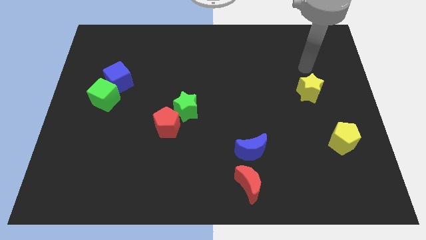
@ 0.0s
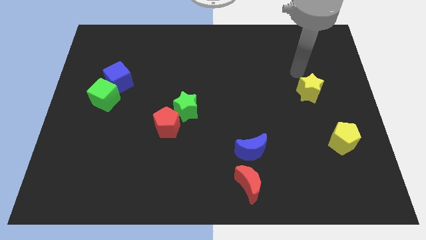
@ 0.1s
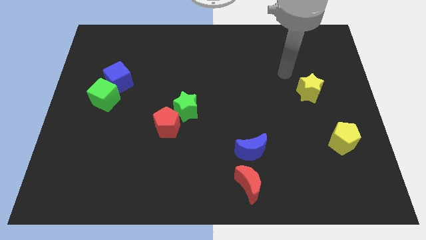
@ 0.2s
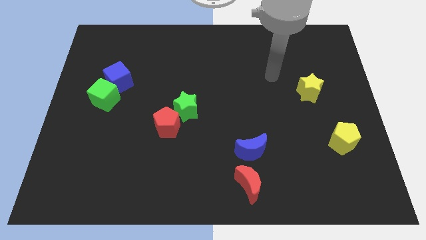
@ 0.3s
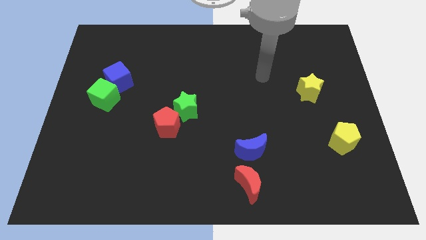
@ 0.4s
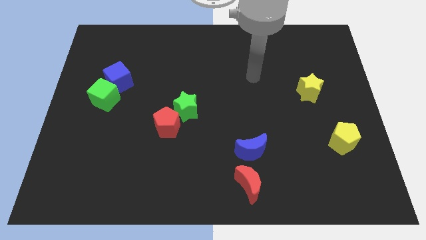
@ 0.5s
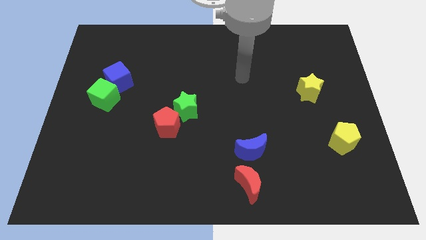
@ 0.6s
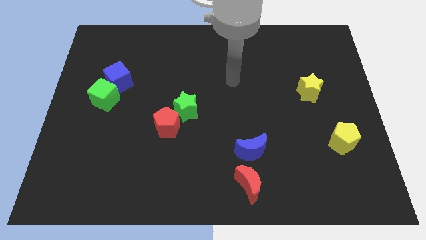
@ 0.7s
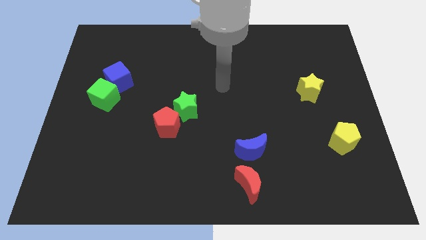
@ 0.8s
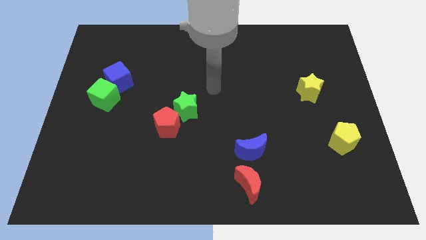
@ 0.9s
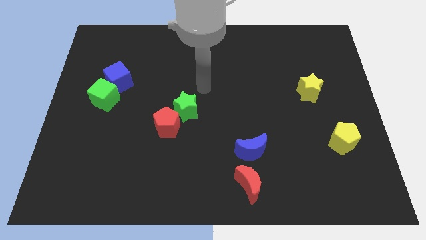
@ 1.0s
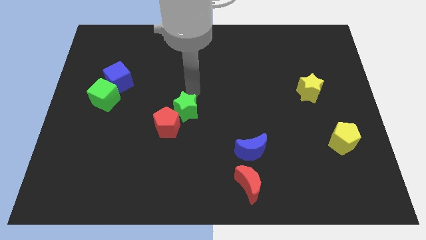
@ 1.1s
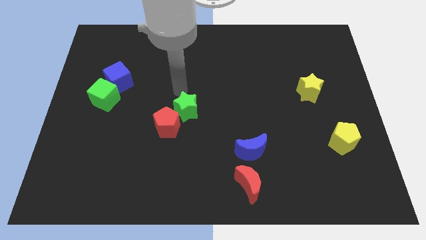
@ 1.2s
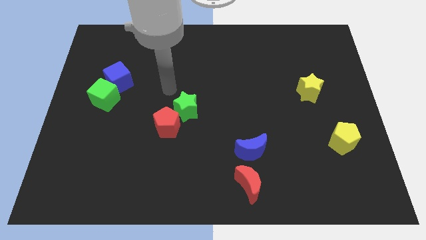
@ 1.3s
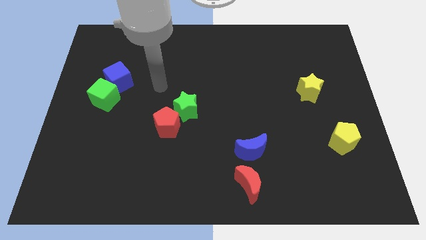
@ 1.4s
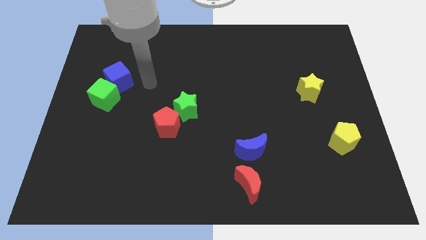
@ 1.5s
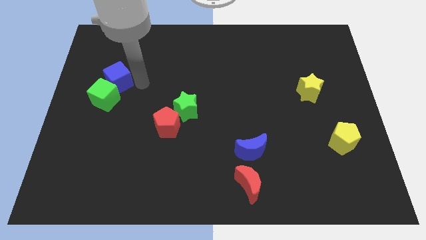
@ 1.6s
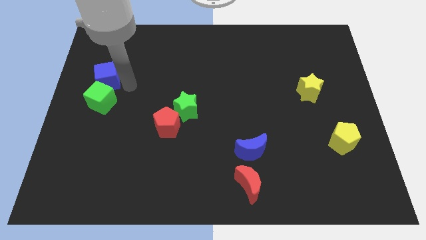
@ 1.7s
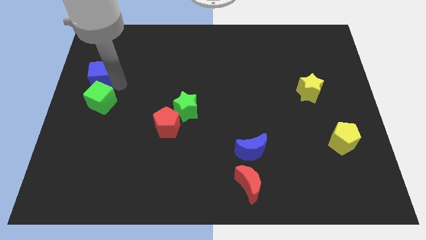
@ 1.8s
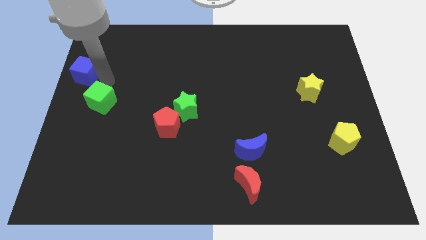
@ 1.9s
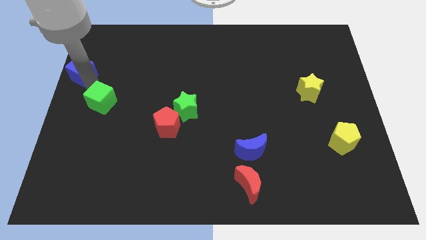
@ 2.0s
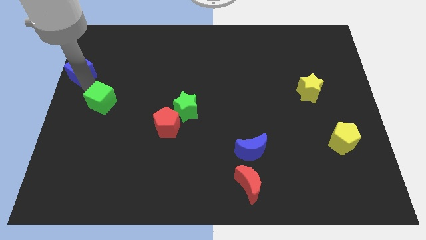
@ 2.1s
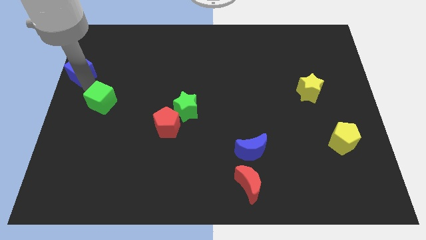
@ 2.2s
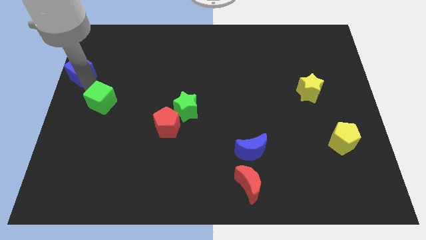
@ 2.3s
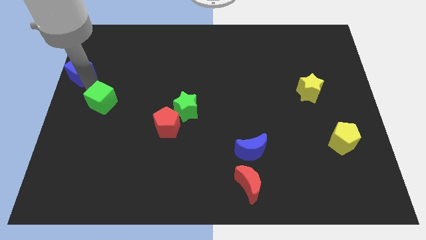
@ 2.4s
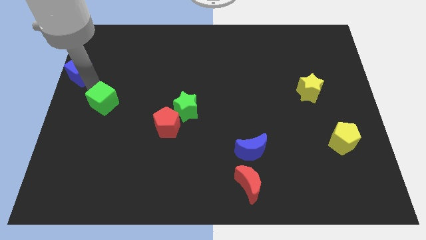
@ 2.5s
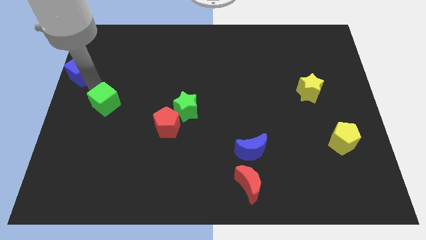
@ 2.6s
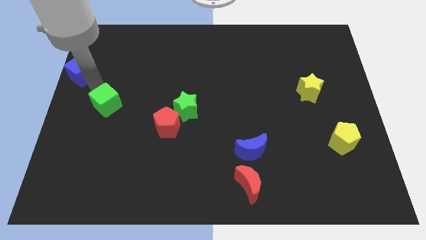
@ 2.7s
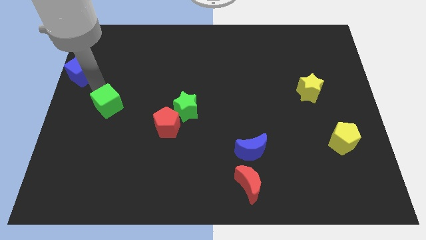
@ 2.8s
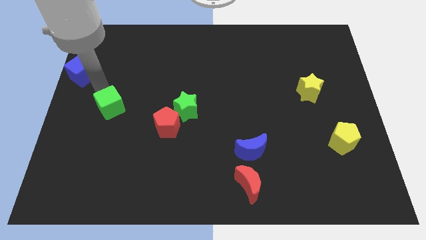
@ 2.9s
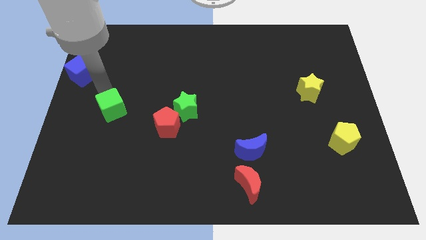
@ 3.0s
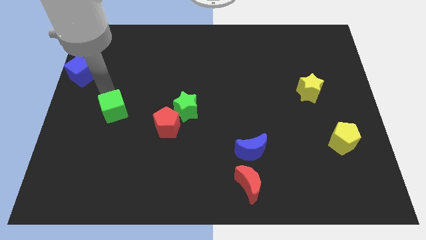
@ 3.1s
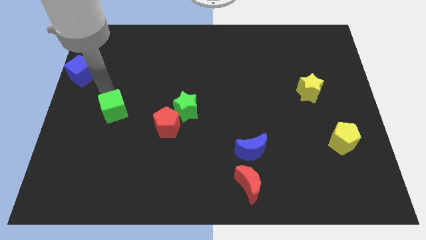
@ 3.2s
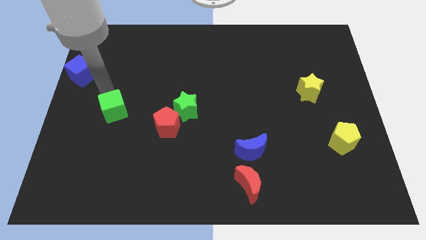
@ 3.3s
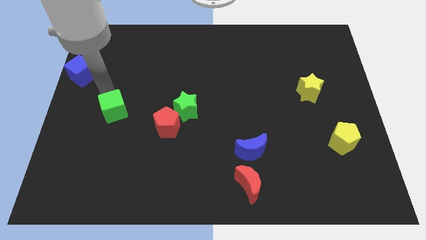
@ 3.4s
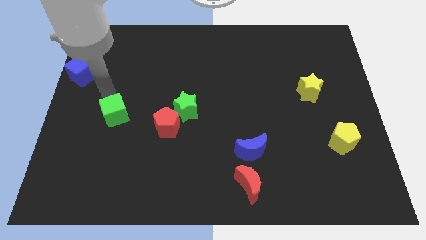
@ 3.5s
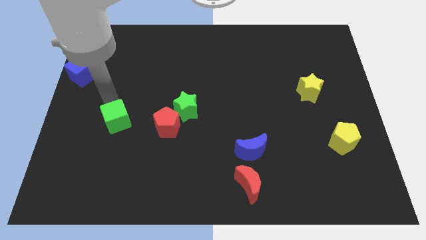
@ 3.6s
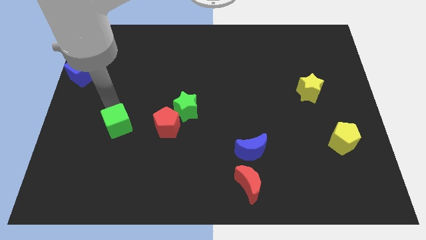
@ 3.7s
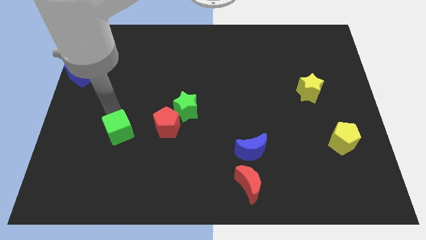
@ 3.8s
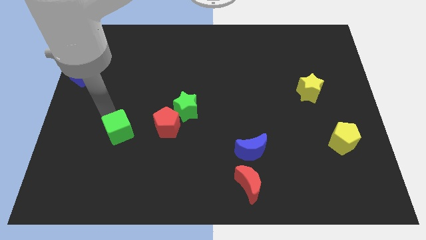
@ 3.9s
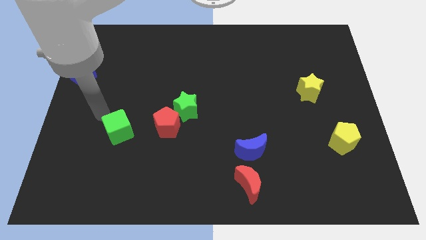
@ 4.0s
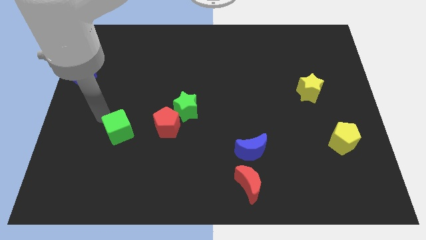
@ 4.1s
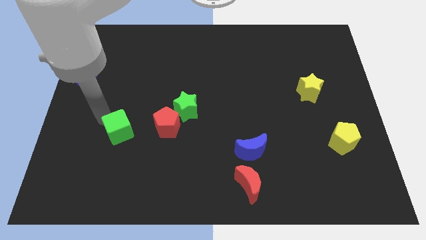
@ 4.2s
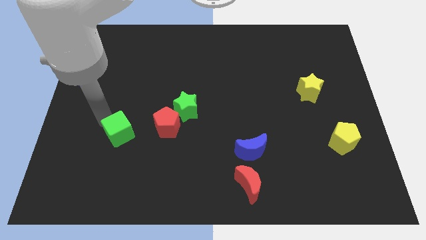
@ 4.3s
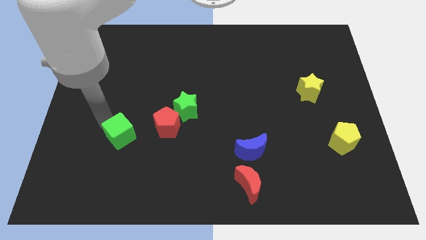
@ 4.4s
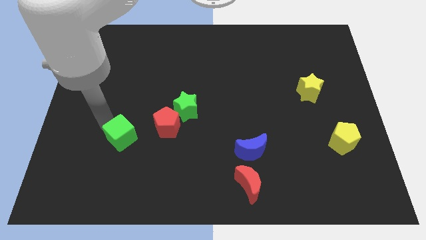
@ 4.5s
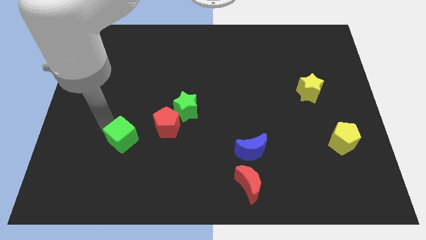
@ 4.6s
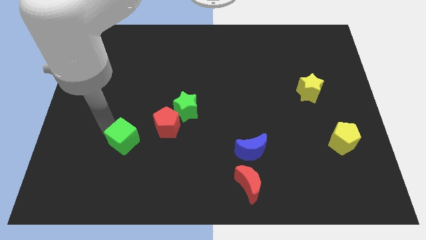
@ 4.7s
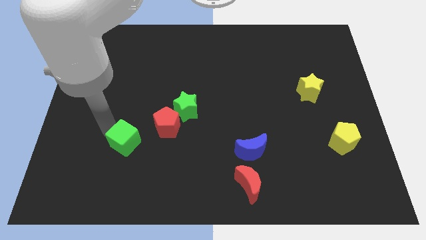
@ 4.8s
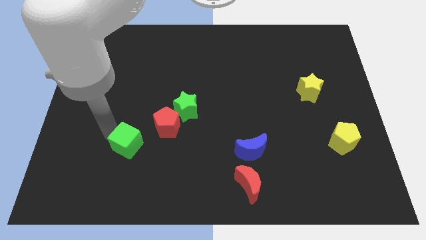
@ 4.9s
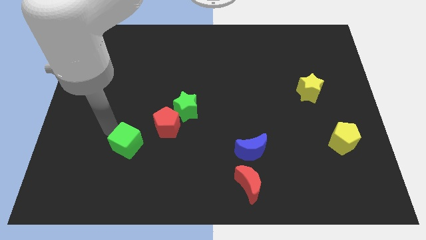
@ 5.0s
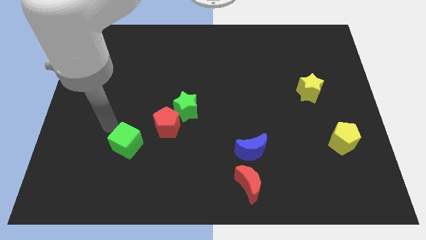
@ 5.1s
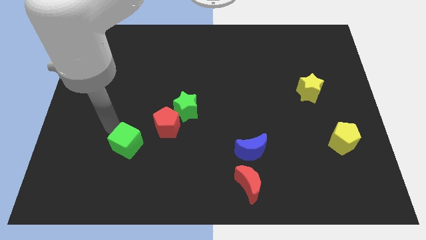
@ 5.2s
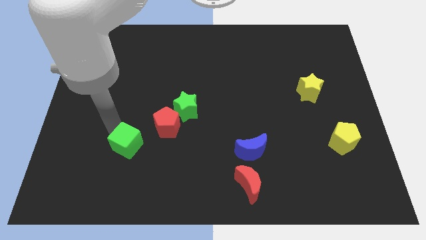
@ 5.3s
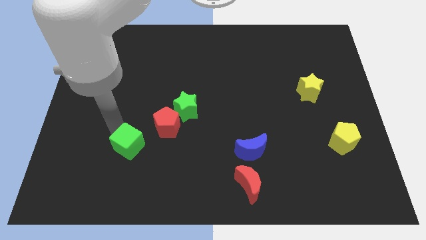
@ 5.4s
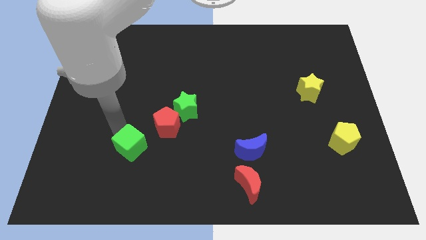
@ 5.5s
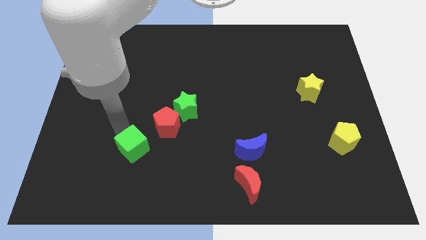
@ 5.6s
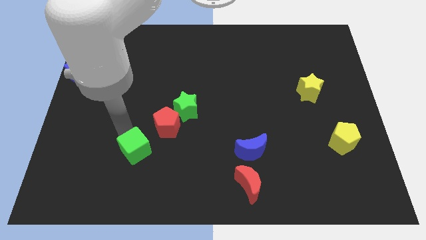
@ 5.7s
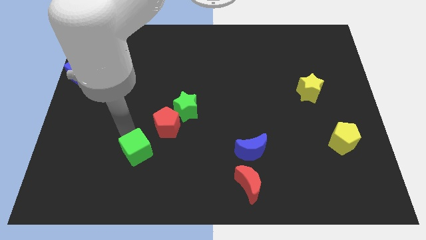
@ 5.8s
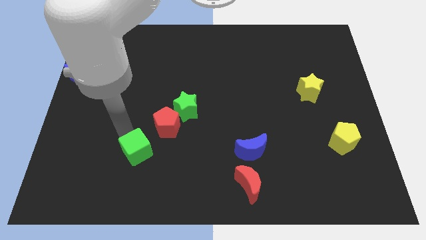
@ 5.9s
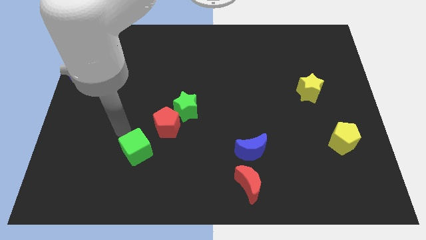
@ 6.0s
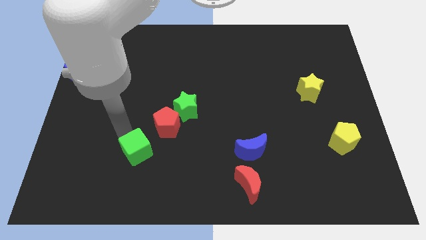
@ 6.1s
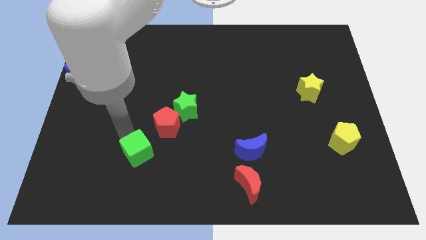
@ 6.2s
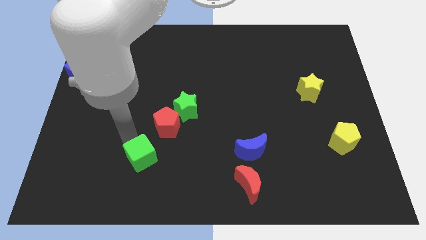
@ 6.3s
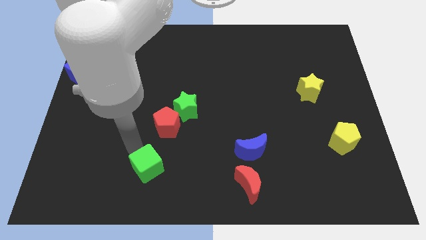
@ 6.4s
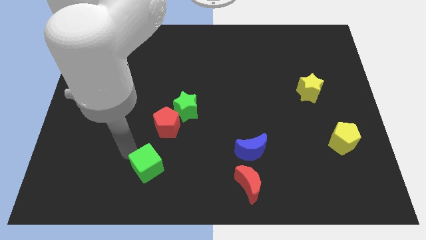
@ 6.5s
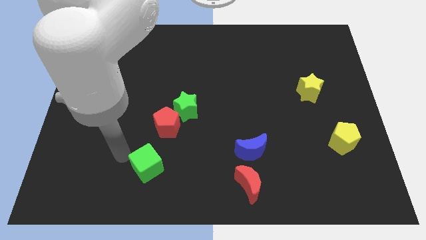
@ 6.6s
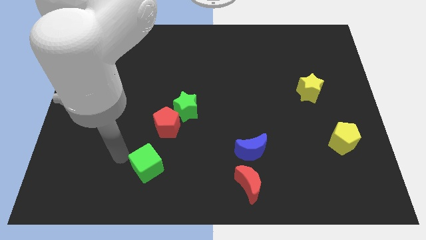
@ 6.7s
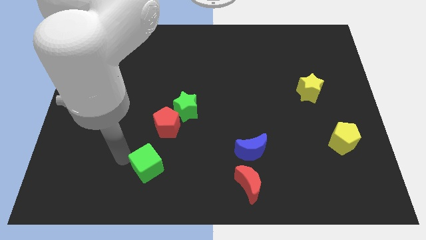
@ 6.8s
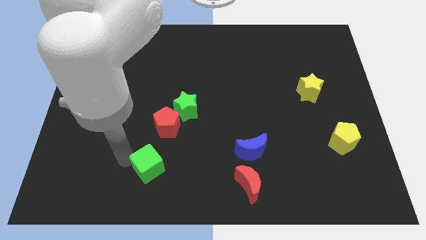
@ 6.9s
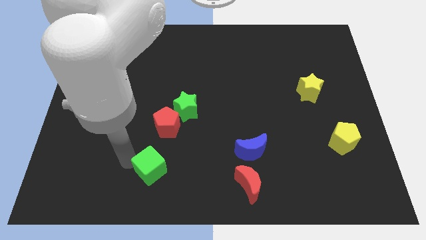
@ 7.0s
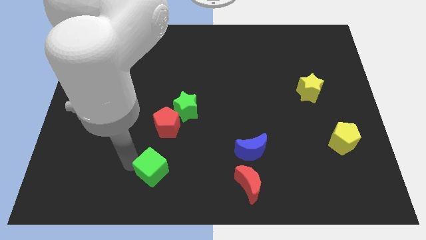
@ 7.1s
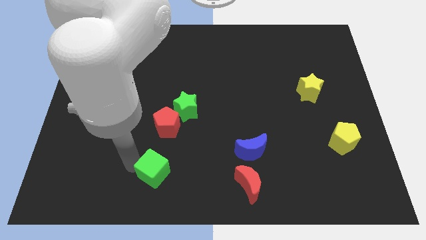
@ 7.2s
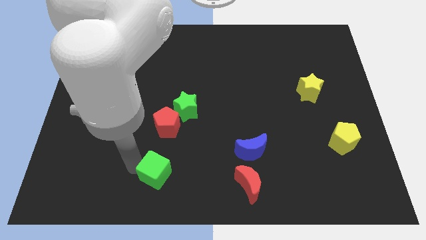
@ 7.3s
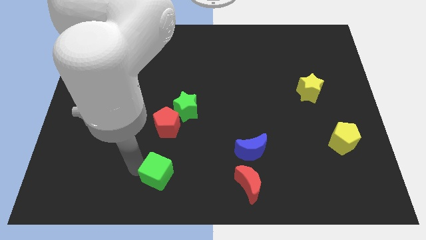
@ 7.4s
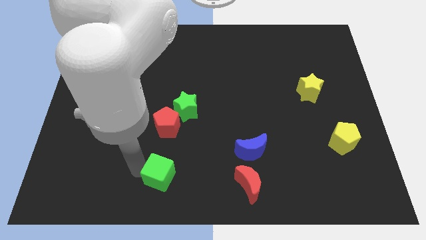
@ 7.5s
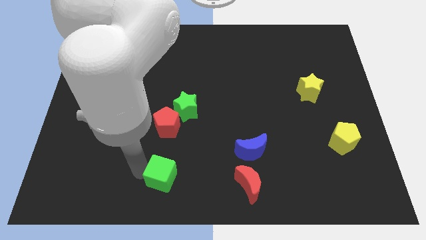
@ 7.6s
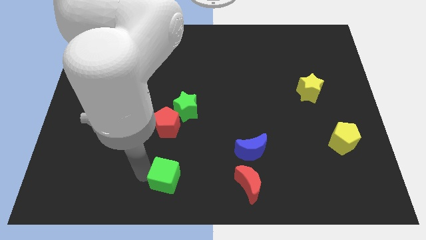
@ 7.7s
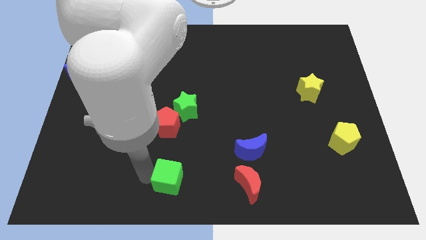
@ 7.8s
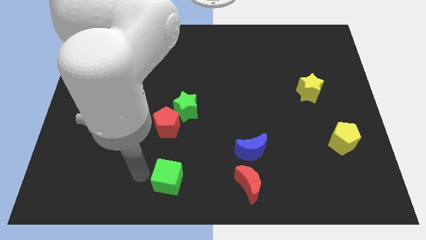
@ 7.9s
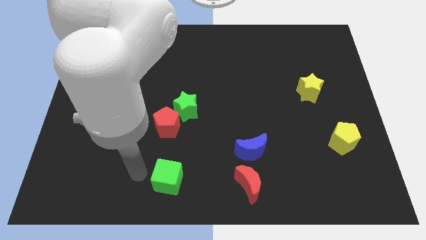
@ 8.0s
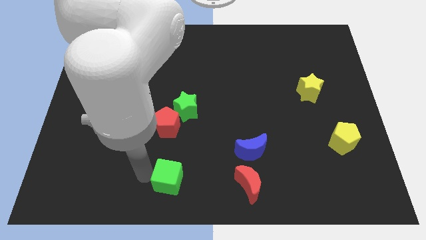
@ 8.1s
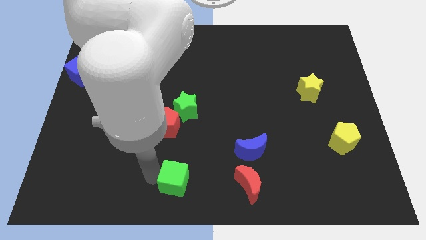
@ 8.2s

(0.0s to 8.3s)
push the green cube just left of the red moon
